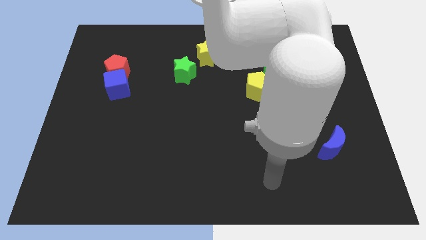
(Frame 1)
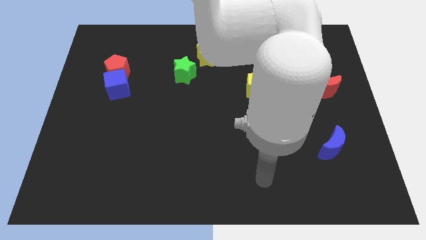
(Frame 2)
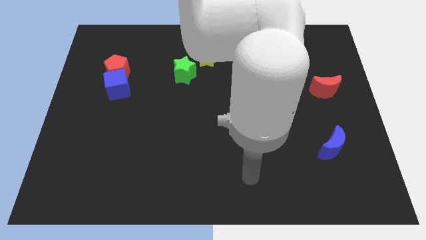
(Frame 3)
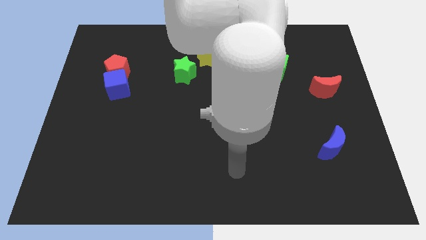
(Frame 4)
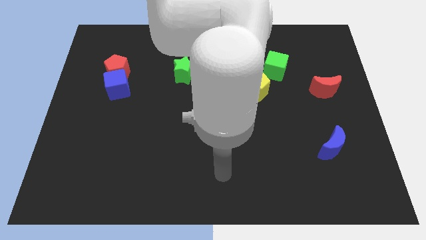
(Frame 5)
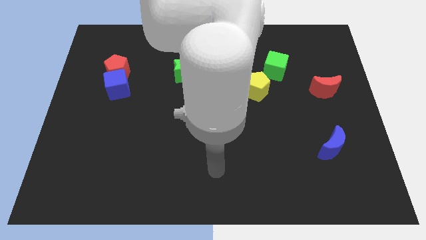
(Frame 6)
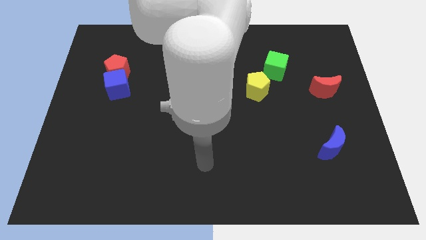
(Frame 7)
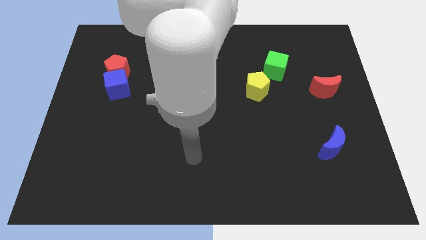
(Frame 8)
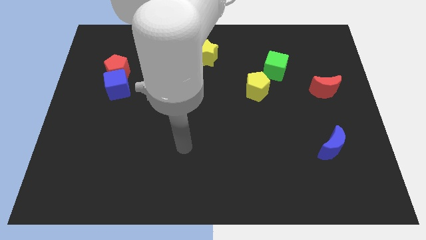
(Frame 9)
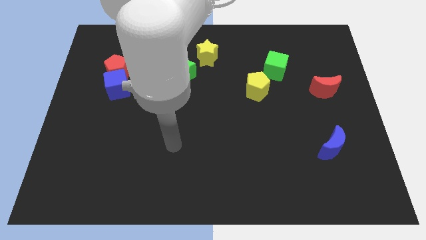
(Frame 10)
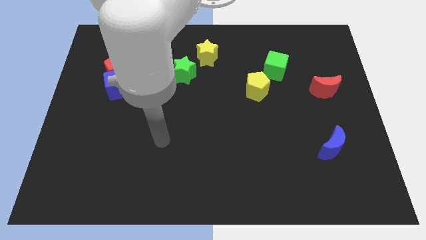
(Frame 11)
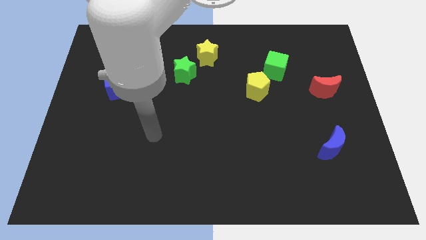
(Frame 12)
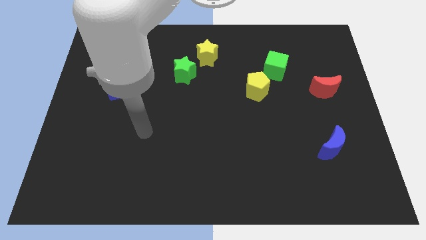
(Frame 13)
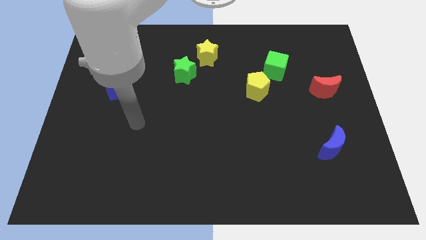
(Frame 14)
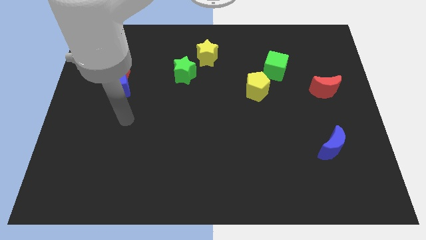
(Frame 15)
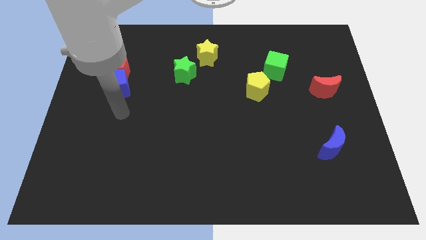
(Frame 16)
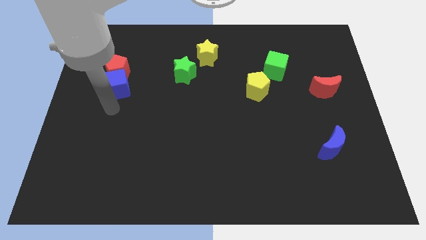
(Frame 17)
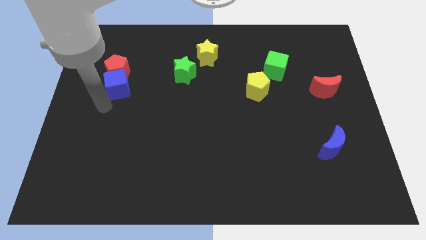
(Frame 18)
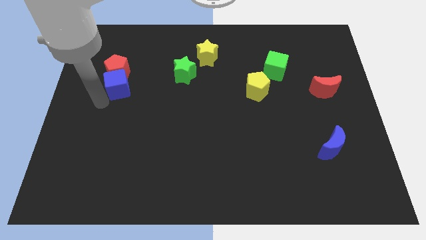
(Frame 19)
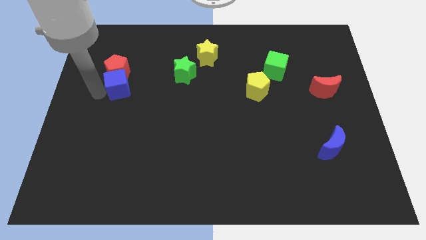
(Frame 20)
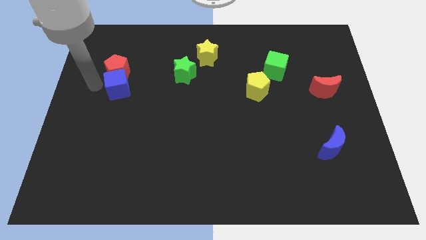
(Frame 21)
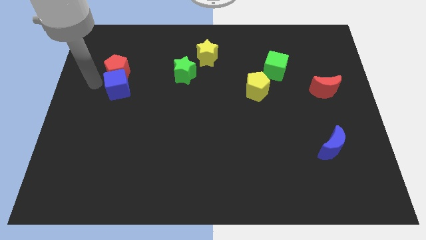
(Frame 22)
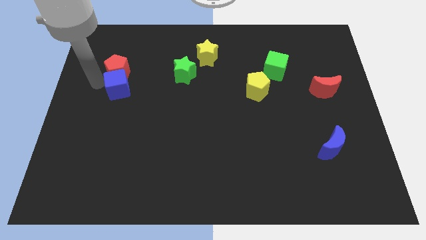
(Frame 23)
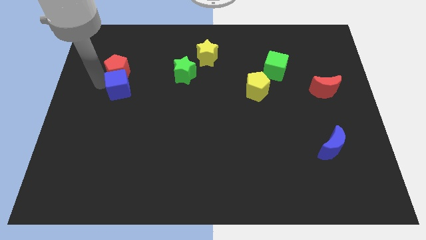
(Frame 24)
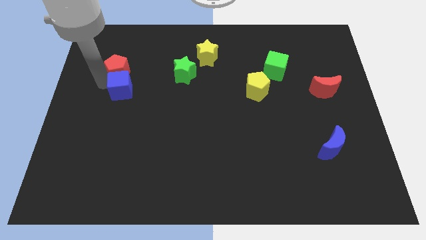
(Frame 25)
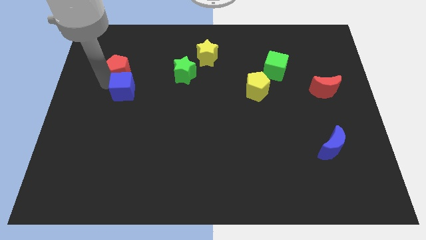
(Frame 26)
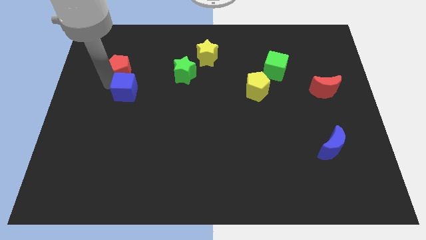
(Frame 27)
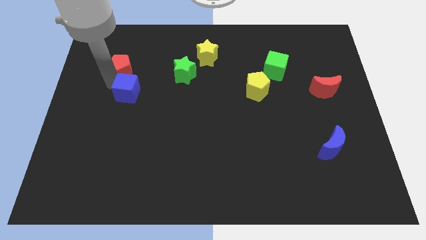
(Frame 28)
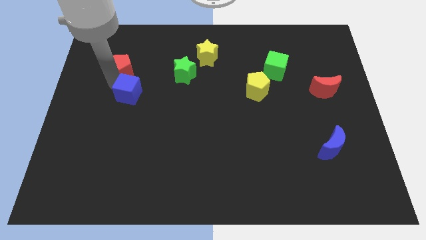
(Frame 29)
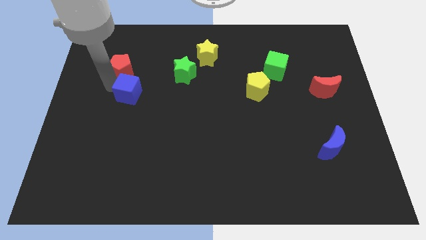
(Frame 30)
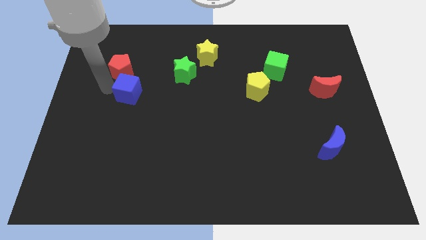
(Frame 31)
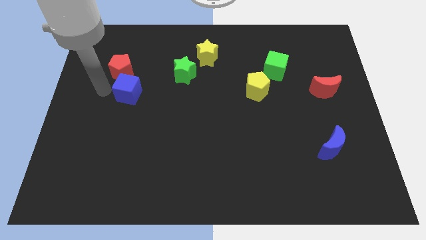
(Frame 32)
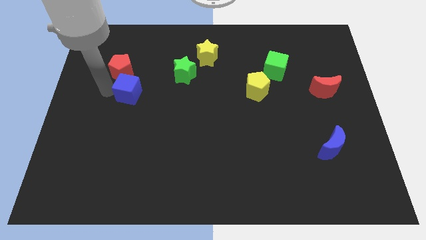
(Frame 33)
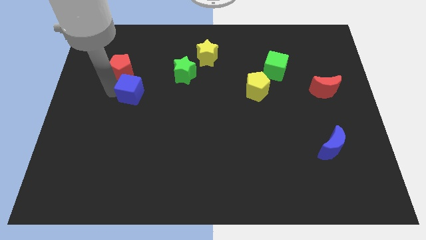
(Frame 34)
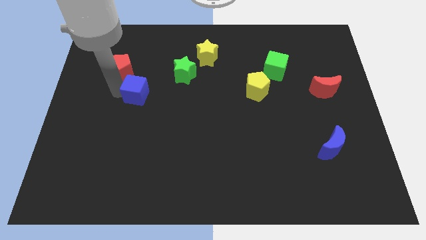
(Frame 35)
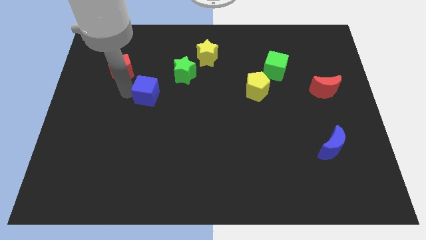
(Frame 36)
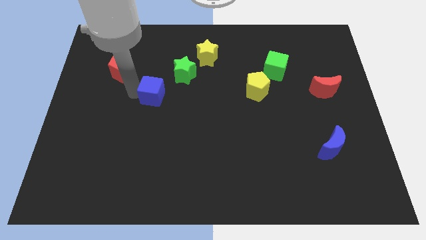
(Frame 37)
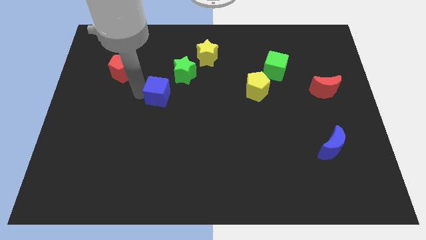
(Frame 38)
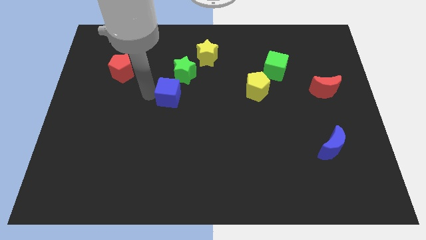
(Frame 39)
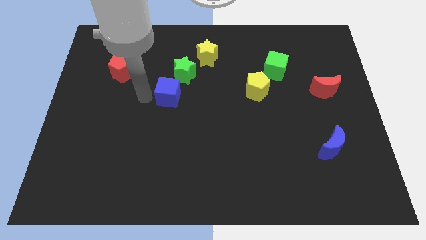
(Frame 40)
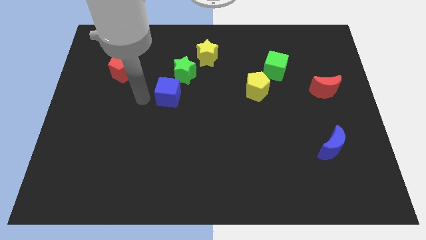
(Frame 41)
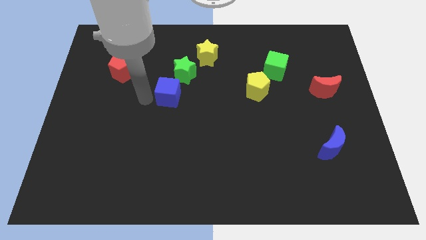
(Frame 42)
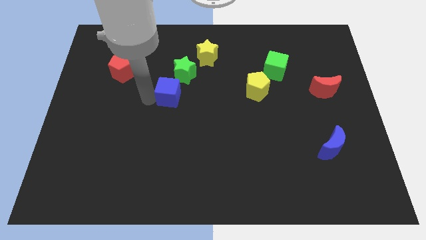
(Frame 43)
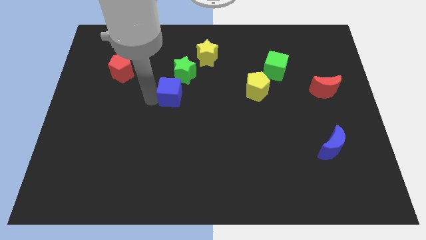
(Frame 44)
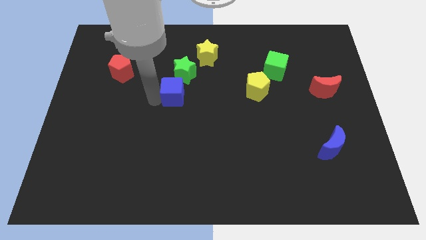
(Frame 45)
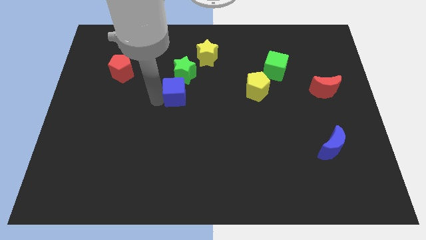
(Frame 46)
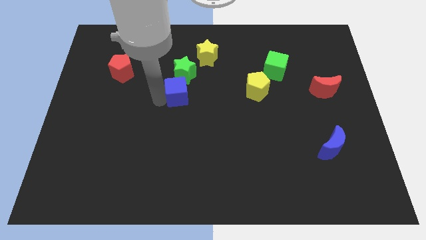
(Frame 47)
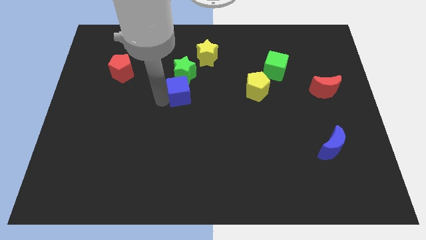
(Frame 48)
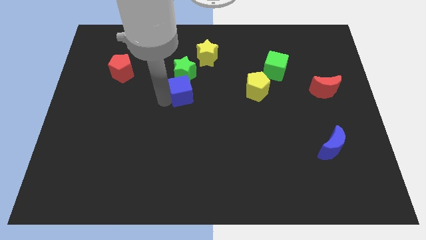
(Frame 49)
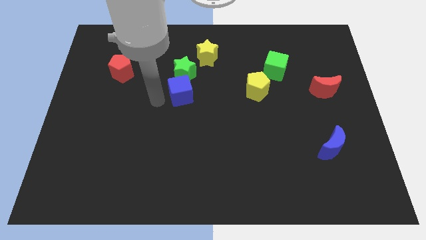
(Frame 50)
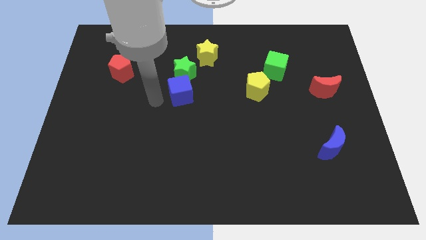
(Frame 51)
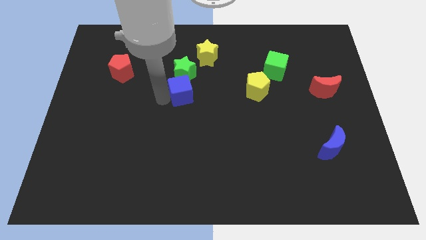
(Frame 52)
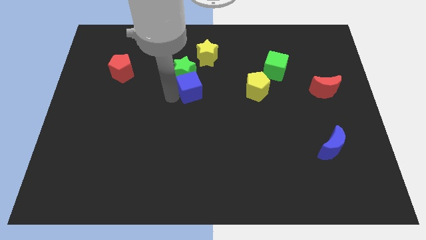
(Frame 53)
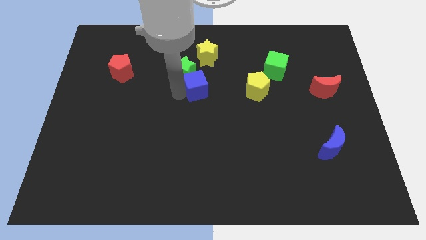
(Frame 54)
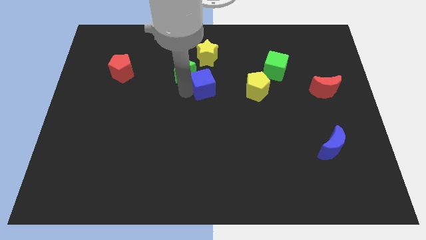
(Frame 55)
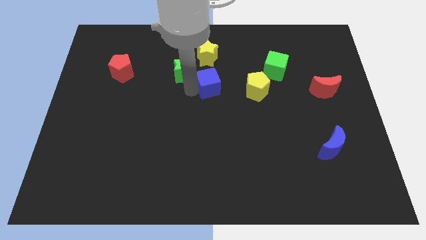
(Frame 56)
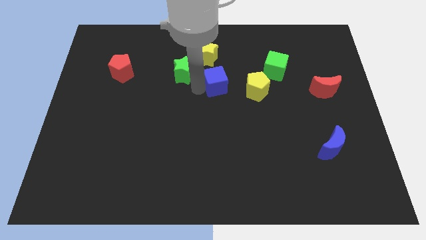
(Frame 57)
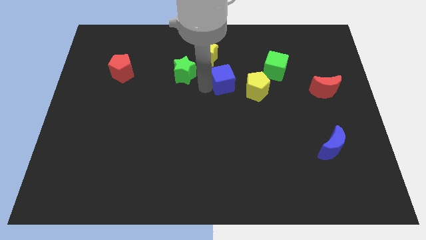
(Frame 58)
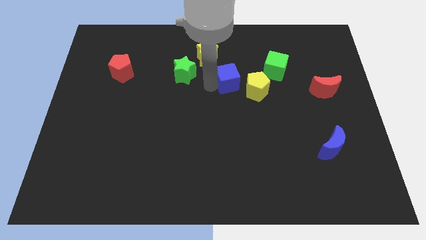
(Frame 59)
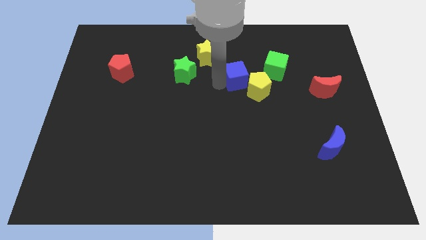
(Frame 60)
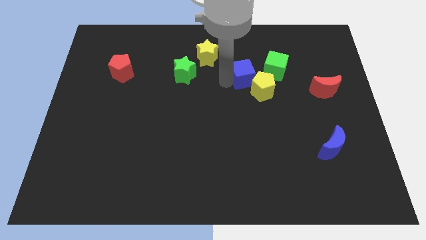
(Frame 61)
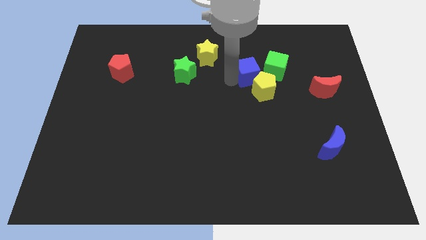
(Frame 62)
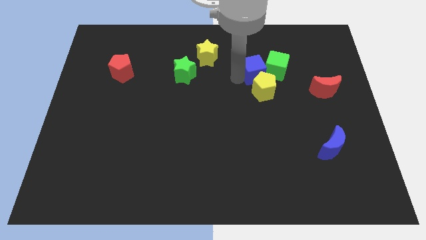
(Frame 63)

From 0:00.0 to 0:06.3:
put the blue cube next to the green cube

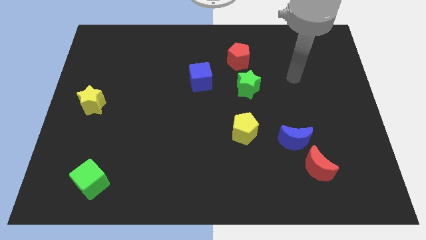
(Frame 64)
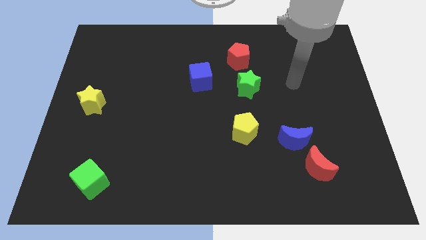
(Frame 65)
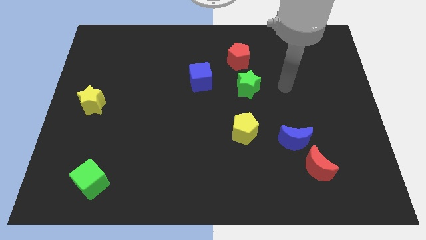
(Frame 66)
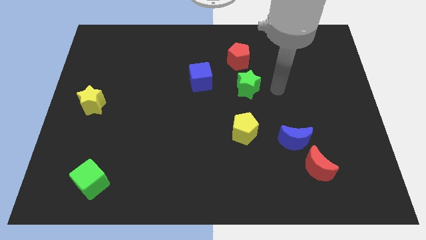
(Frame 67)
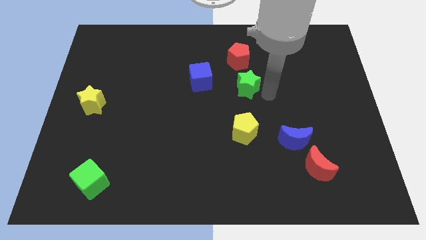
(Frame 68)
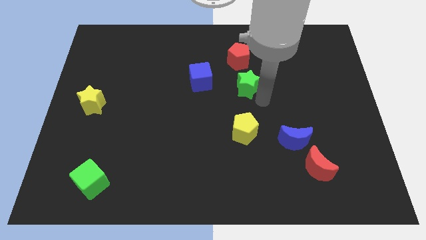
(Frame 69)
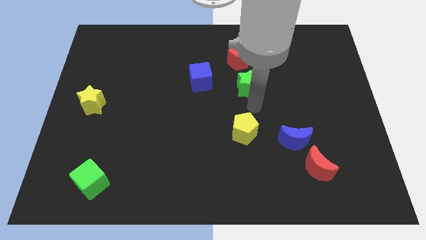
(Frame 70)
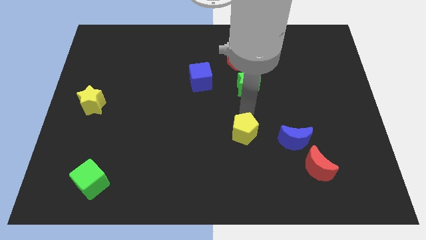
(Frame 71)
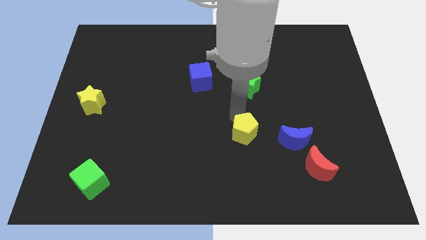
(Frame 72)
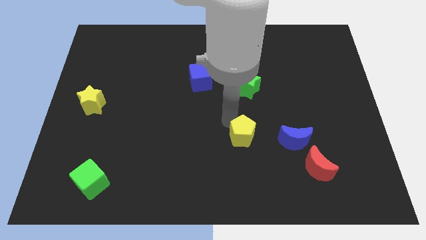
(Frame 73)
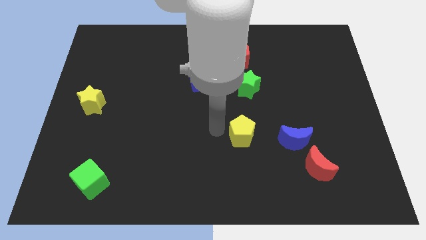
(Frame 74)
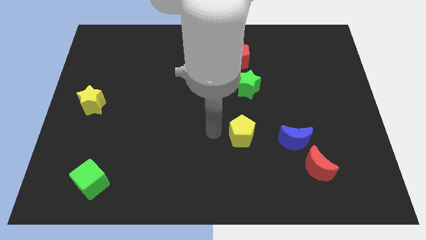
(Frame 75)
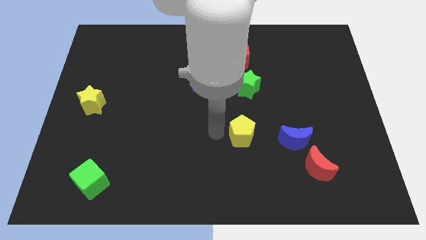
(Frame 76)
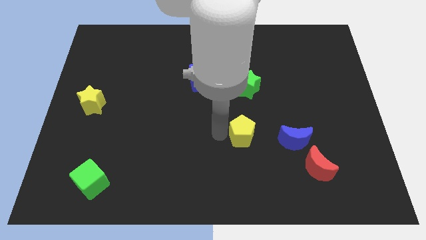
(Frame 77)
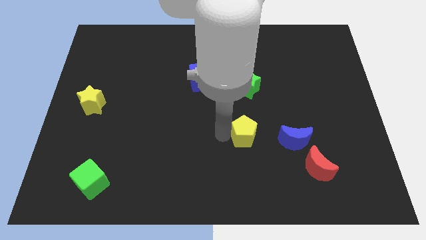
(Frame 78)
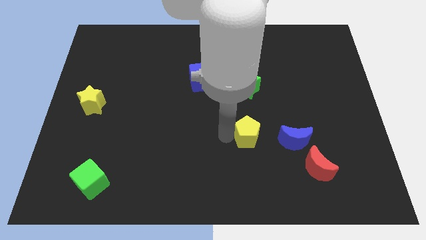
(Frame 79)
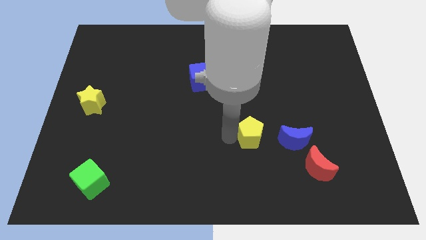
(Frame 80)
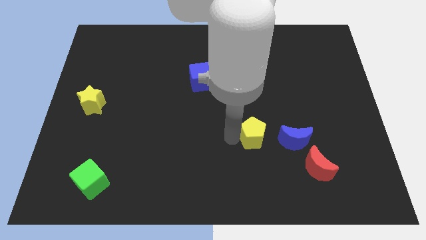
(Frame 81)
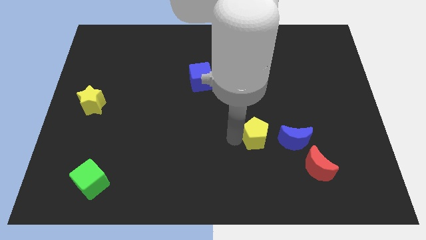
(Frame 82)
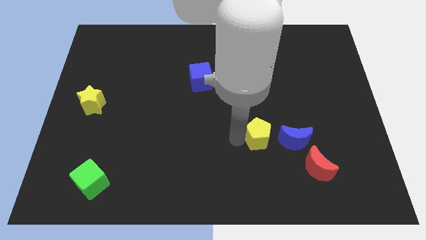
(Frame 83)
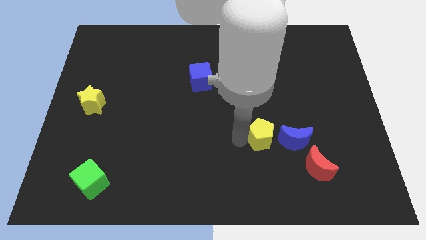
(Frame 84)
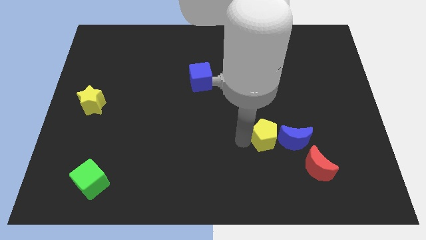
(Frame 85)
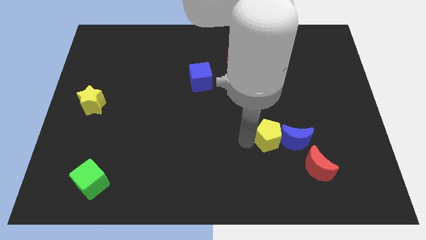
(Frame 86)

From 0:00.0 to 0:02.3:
slide the yellow pentagon towards the blue moon
